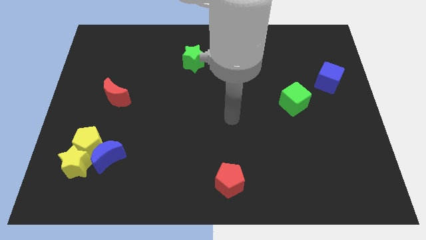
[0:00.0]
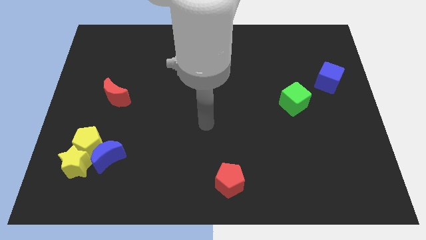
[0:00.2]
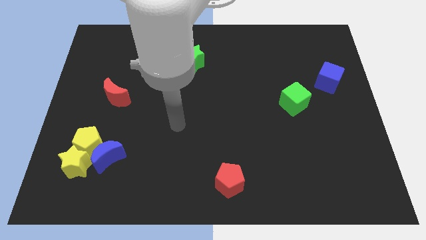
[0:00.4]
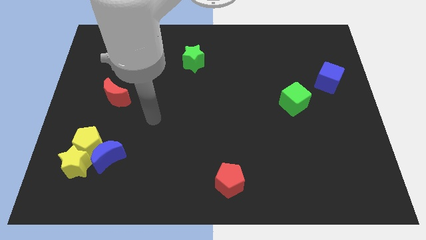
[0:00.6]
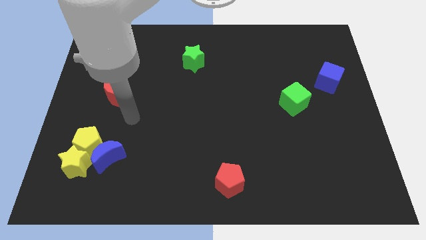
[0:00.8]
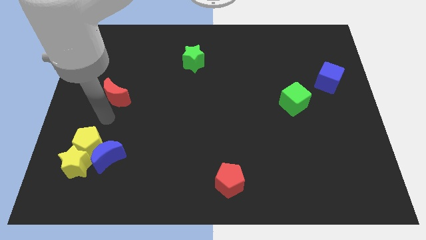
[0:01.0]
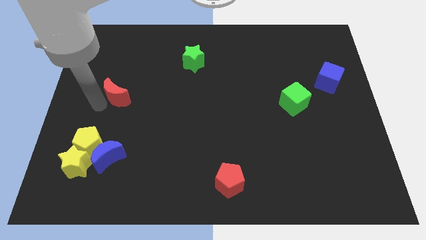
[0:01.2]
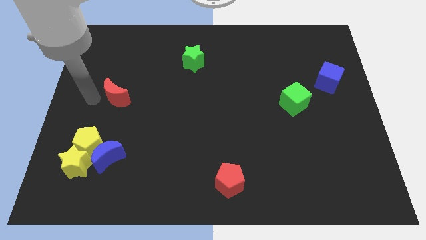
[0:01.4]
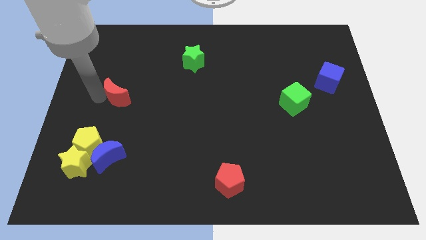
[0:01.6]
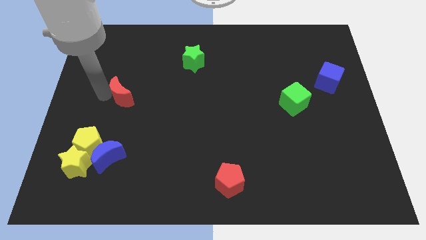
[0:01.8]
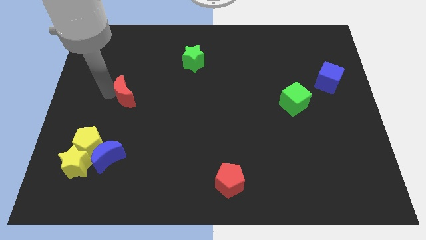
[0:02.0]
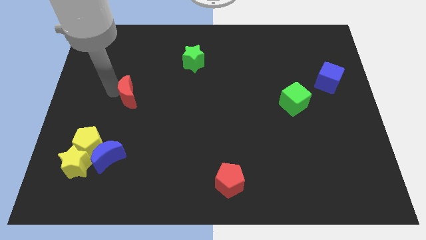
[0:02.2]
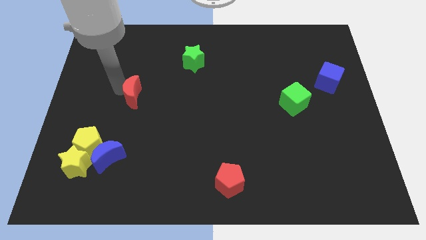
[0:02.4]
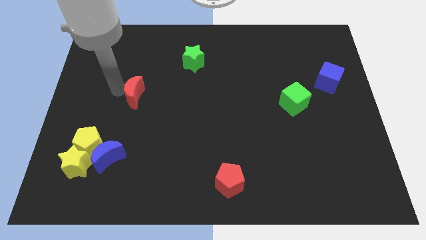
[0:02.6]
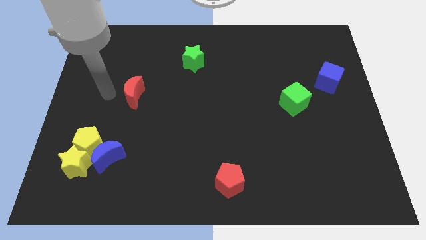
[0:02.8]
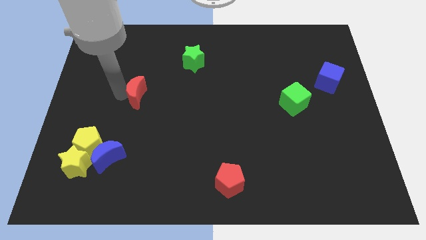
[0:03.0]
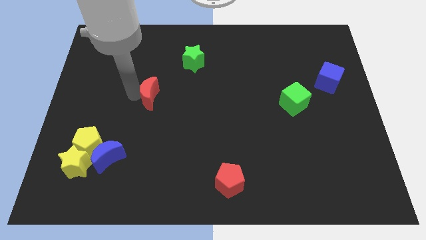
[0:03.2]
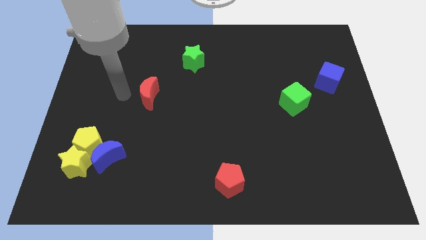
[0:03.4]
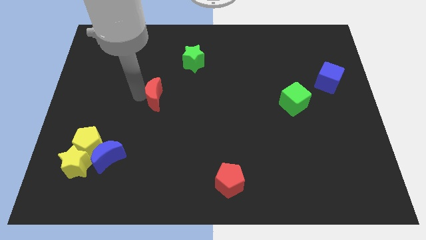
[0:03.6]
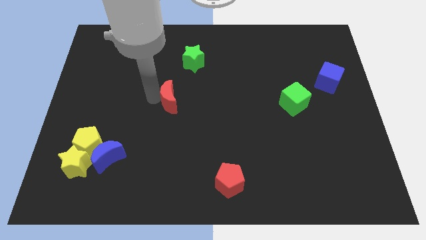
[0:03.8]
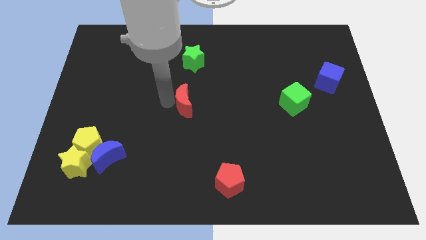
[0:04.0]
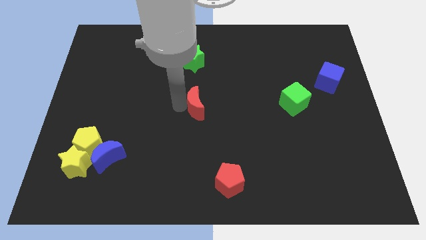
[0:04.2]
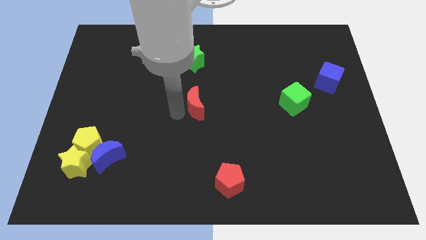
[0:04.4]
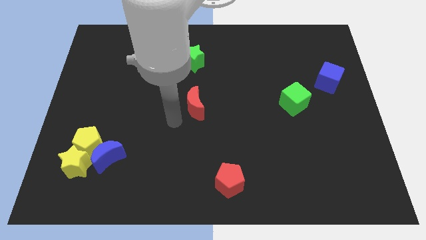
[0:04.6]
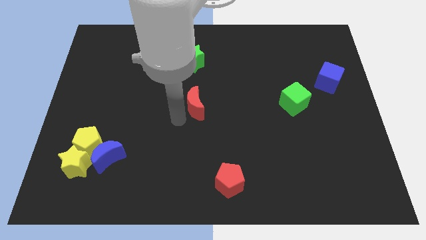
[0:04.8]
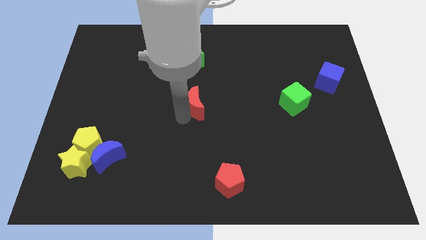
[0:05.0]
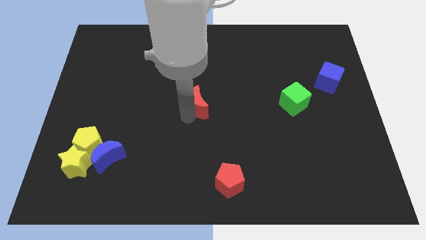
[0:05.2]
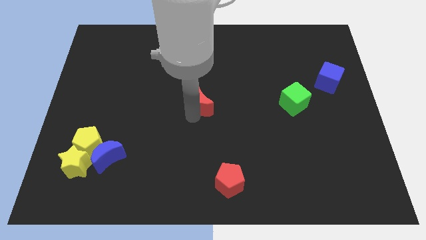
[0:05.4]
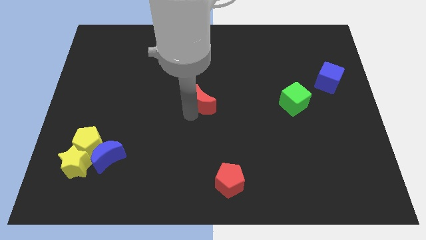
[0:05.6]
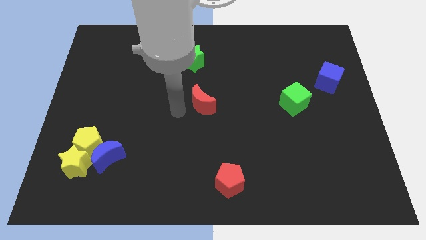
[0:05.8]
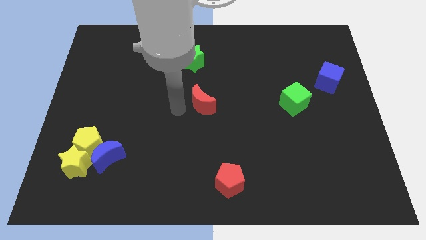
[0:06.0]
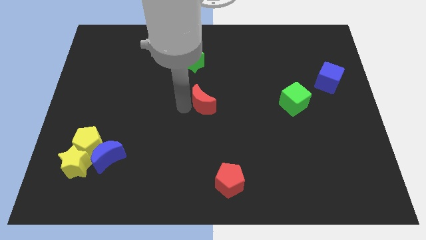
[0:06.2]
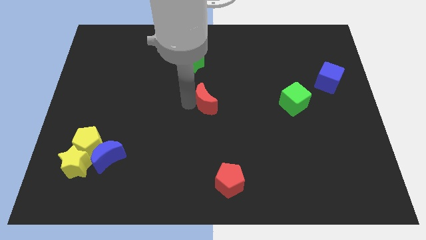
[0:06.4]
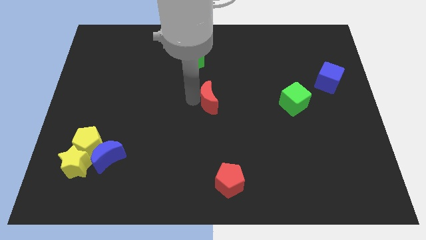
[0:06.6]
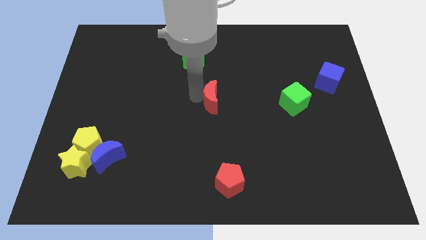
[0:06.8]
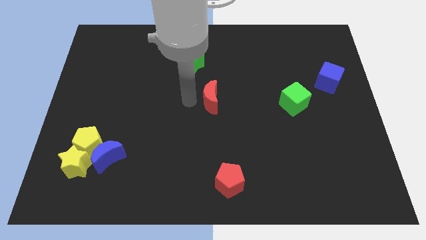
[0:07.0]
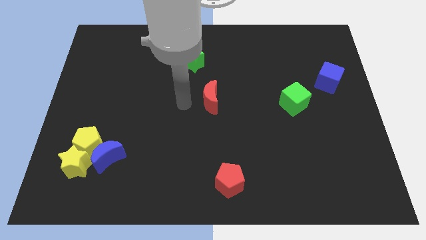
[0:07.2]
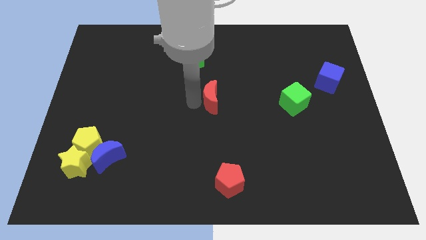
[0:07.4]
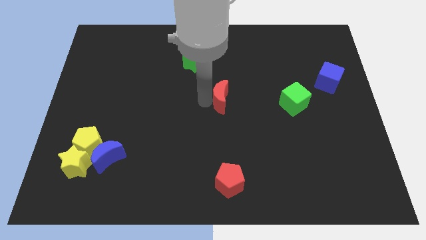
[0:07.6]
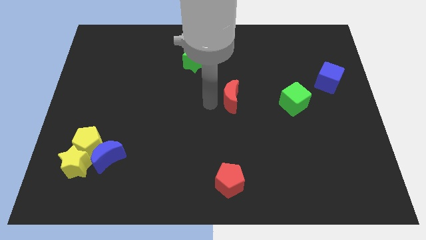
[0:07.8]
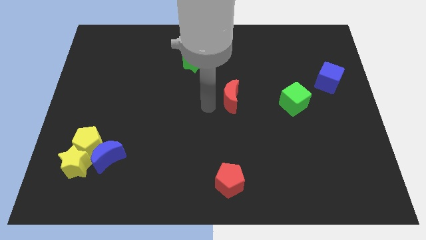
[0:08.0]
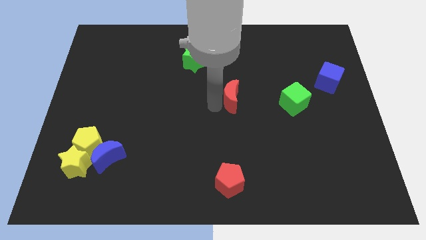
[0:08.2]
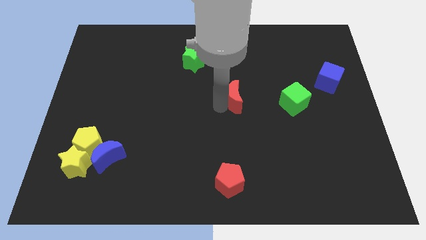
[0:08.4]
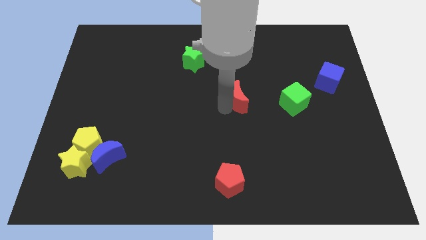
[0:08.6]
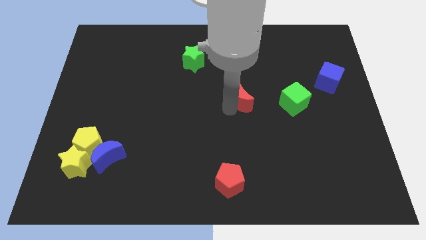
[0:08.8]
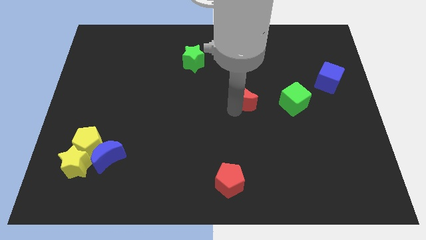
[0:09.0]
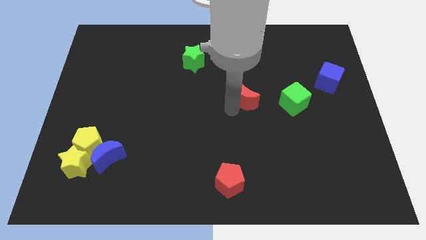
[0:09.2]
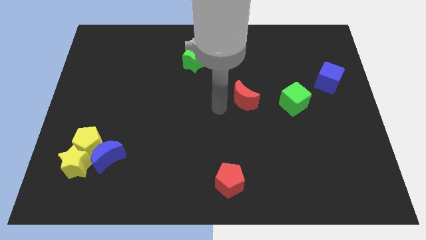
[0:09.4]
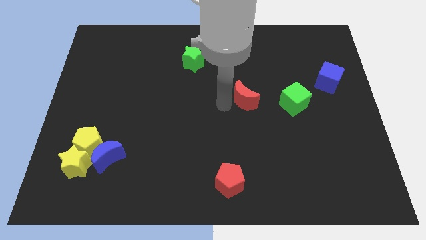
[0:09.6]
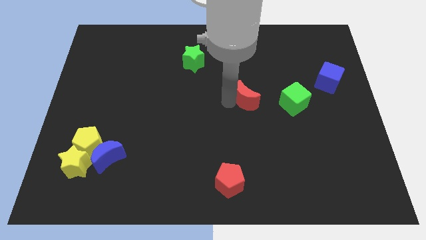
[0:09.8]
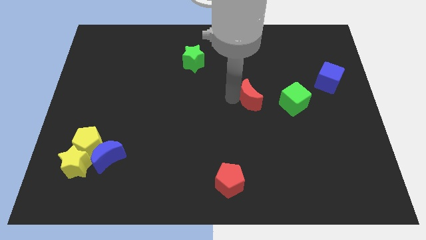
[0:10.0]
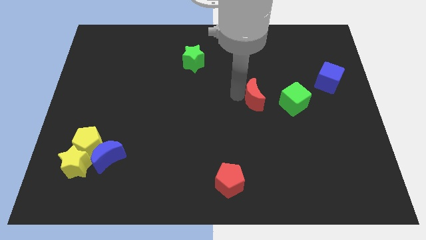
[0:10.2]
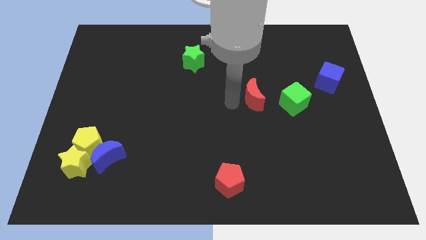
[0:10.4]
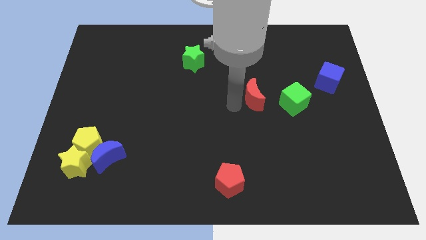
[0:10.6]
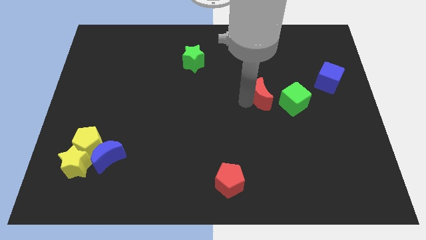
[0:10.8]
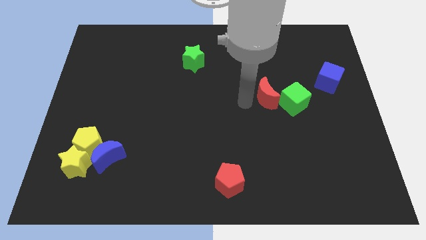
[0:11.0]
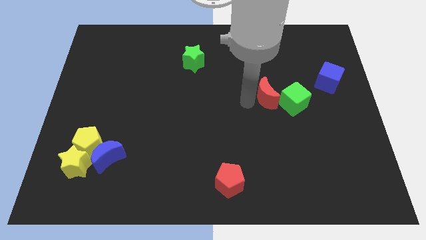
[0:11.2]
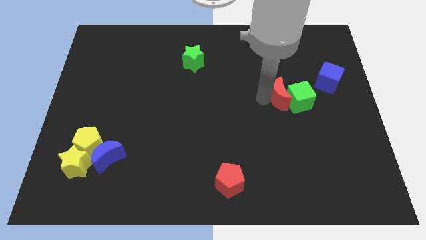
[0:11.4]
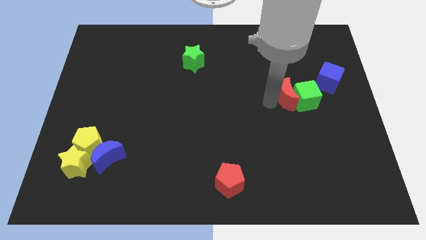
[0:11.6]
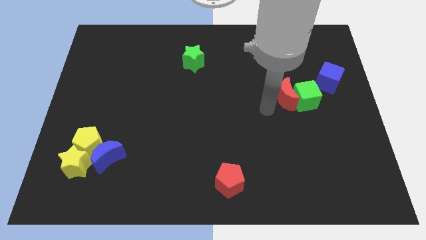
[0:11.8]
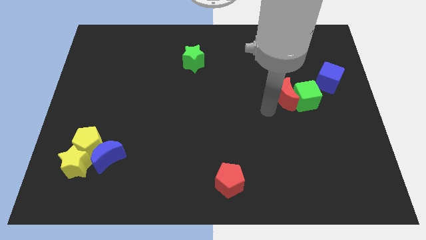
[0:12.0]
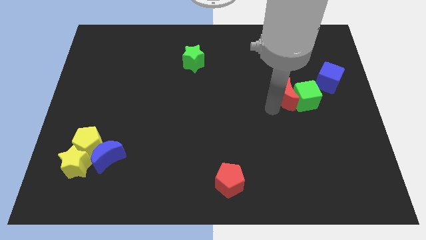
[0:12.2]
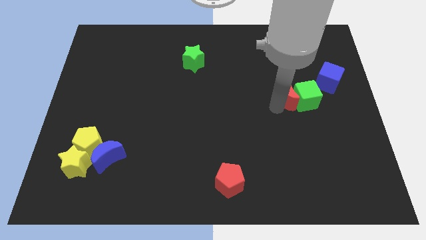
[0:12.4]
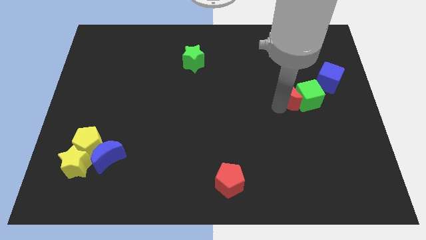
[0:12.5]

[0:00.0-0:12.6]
slide the red moon to the bottom left of the blue cube

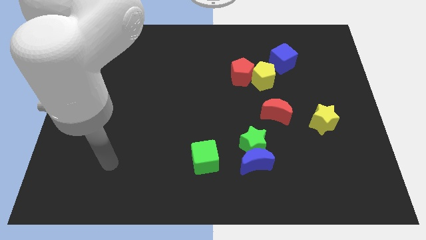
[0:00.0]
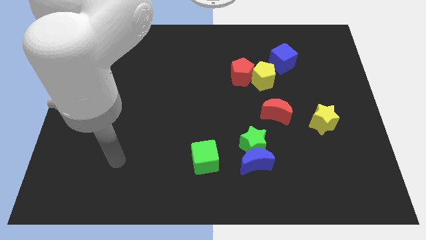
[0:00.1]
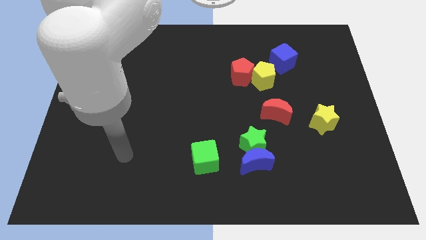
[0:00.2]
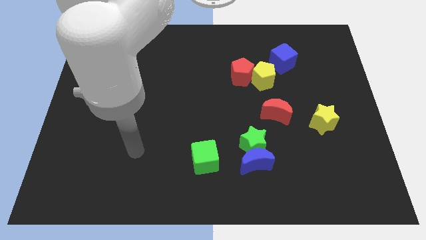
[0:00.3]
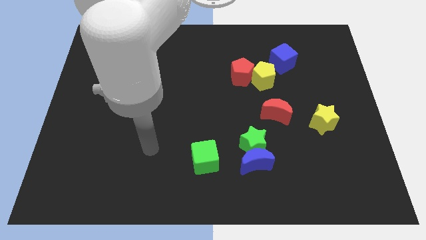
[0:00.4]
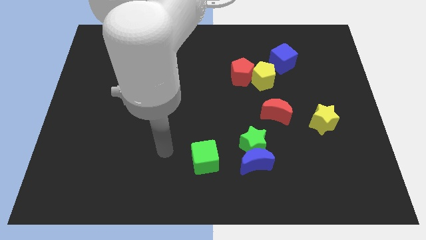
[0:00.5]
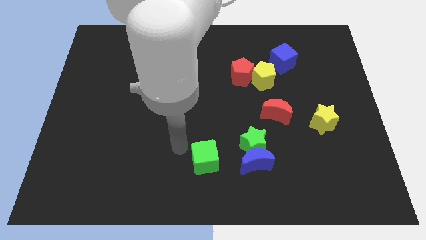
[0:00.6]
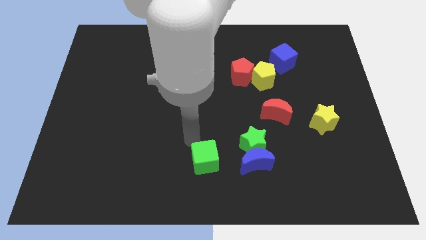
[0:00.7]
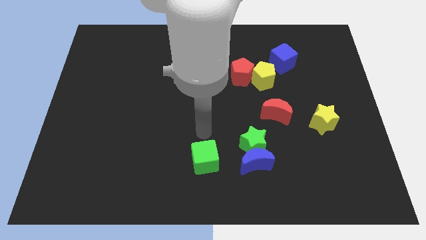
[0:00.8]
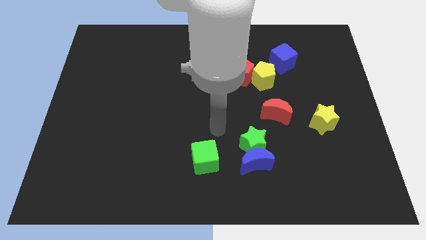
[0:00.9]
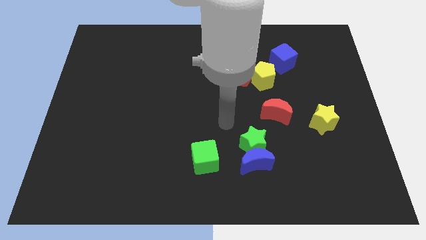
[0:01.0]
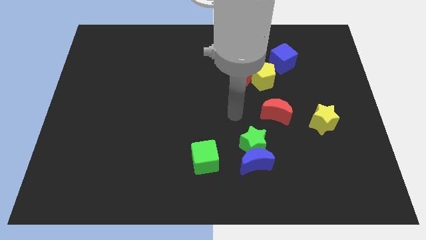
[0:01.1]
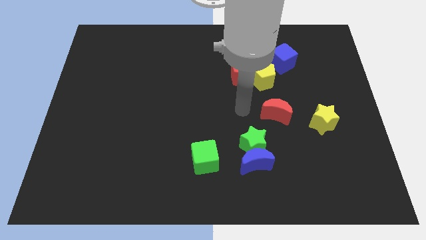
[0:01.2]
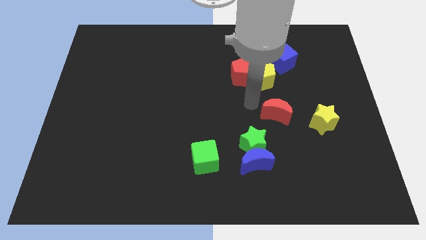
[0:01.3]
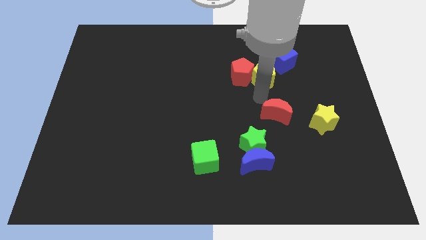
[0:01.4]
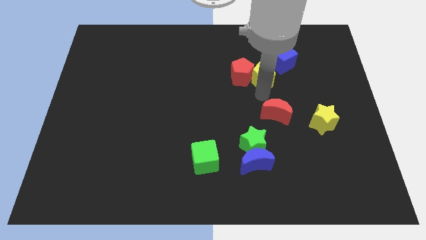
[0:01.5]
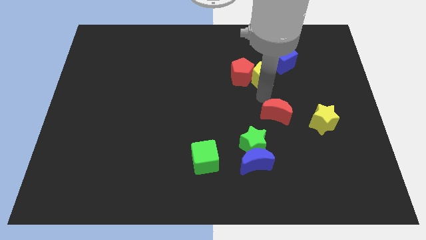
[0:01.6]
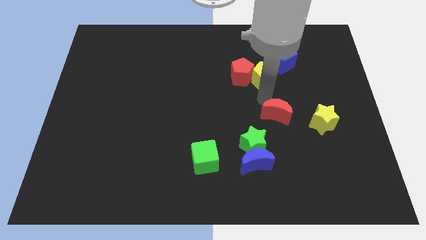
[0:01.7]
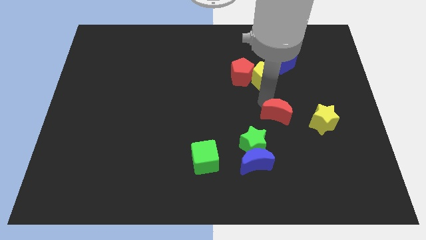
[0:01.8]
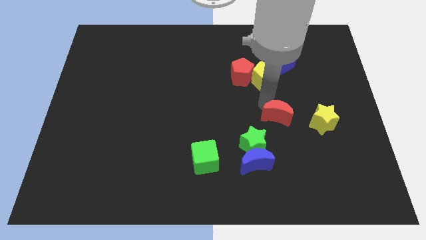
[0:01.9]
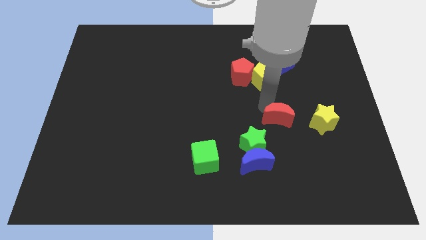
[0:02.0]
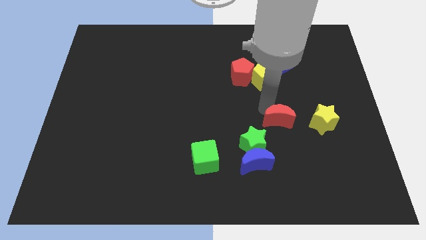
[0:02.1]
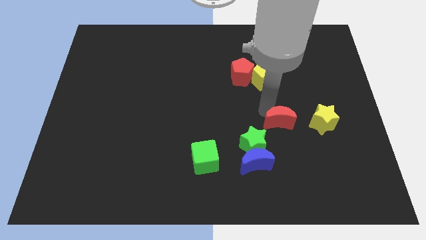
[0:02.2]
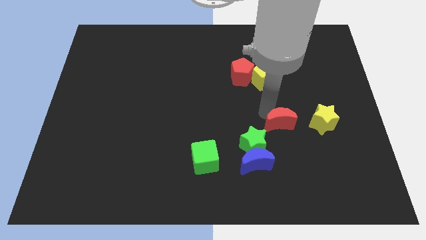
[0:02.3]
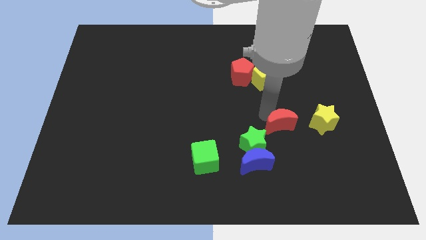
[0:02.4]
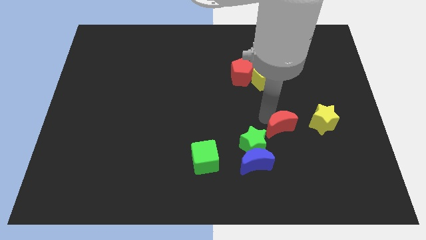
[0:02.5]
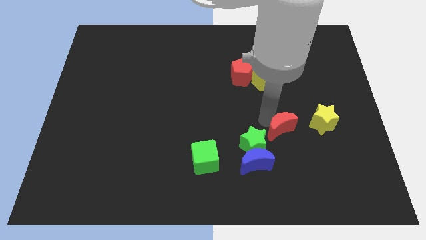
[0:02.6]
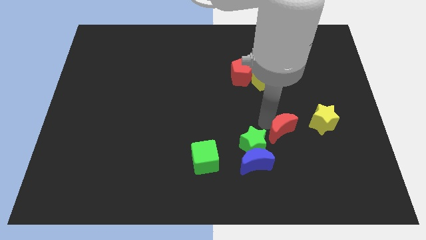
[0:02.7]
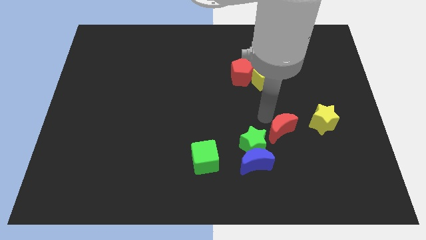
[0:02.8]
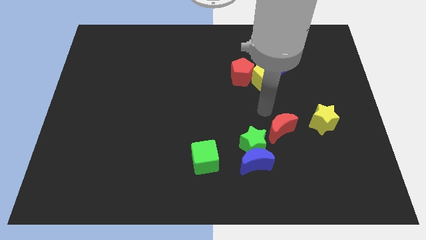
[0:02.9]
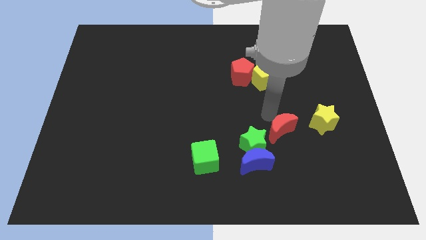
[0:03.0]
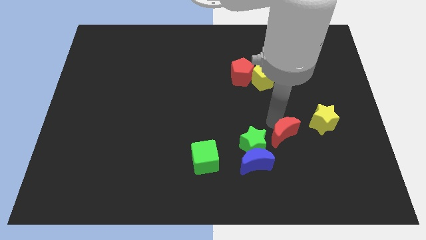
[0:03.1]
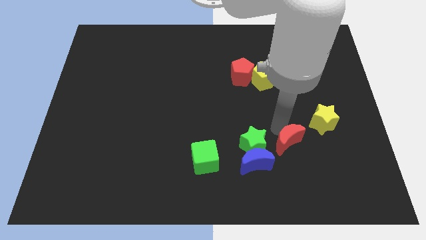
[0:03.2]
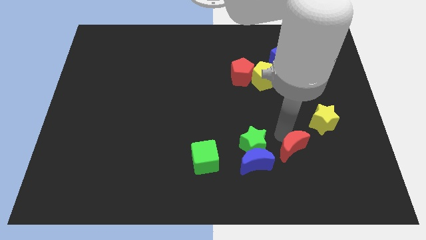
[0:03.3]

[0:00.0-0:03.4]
slide the red moon to the right side of the blue moon
